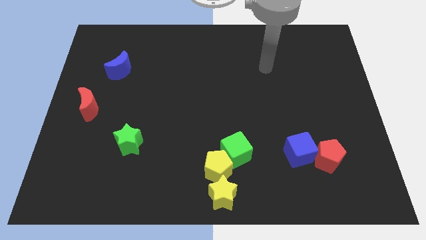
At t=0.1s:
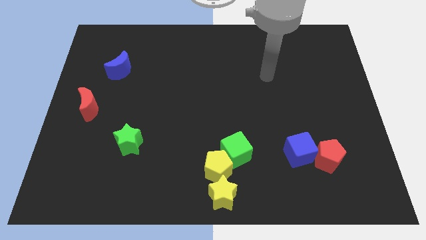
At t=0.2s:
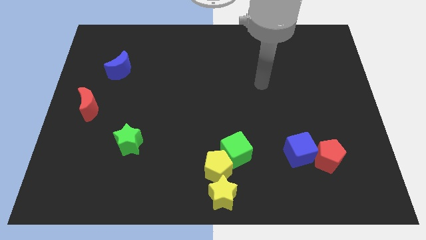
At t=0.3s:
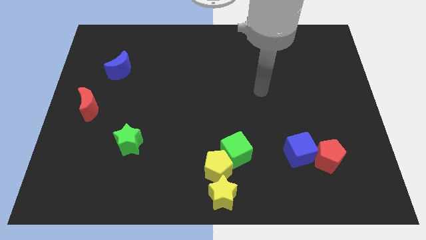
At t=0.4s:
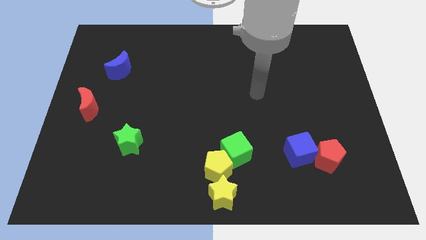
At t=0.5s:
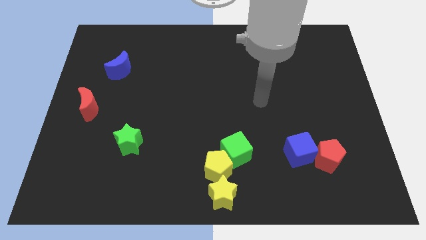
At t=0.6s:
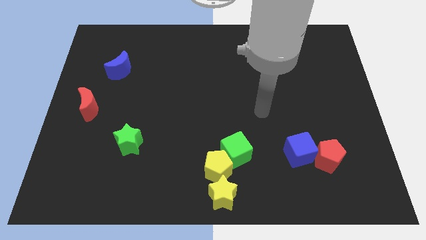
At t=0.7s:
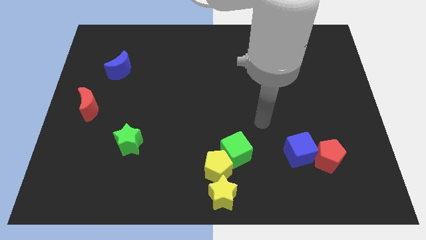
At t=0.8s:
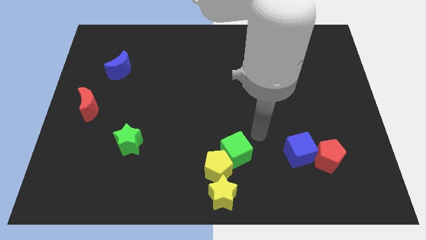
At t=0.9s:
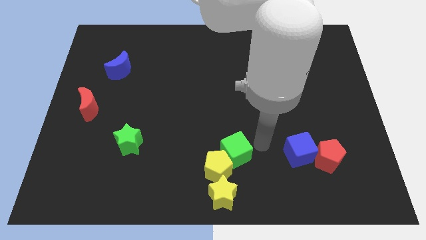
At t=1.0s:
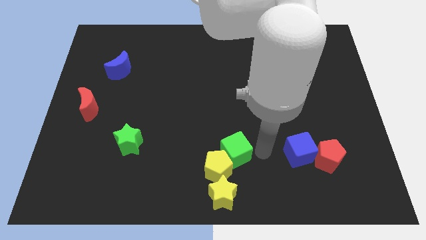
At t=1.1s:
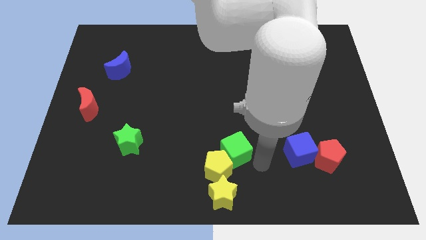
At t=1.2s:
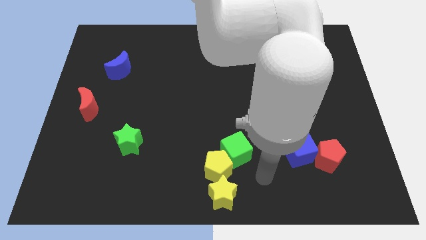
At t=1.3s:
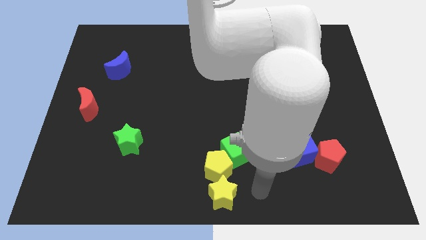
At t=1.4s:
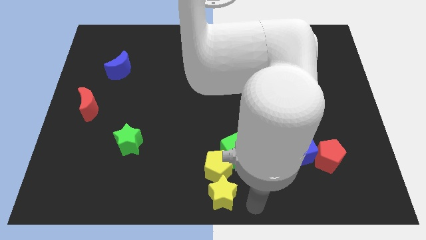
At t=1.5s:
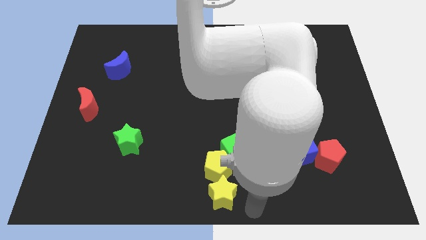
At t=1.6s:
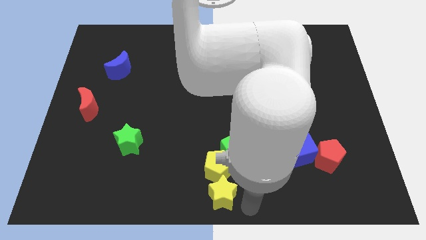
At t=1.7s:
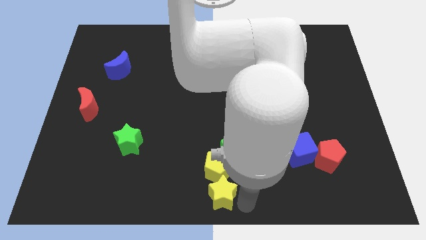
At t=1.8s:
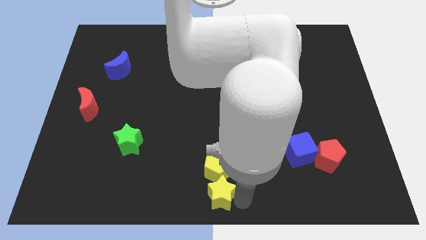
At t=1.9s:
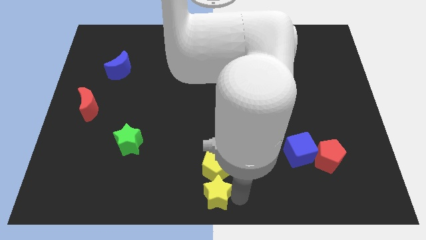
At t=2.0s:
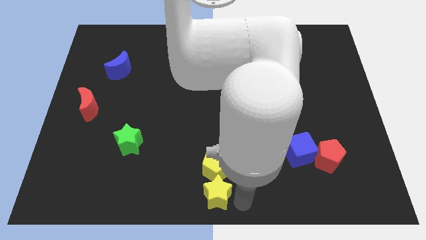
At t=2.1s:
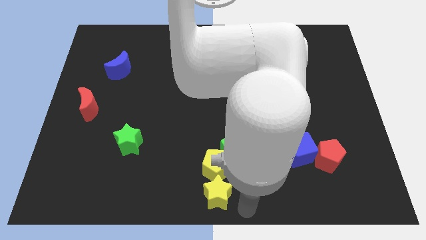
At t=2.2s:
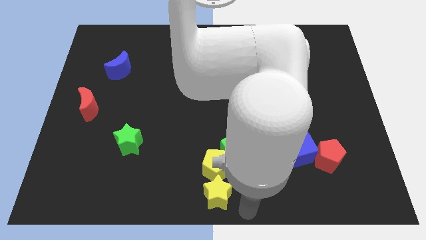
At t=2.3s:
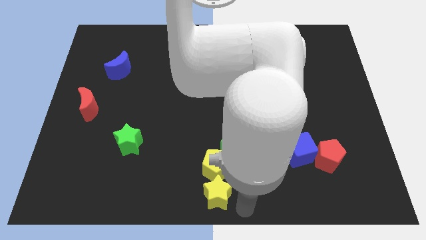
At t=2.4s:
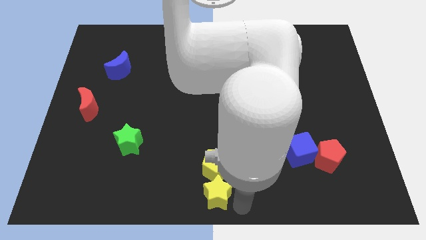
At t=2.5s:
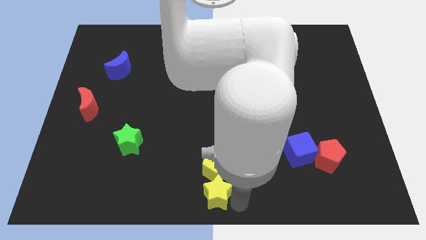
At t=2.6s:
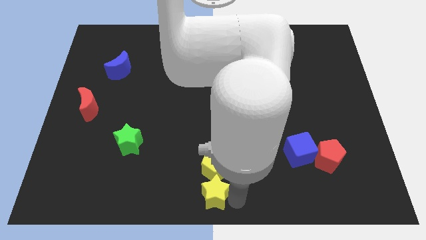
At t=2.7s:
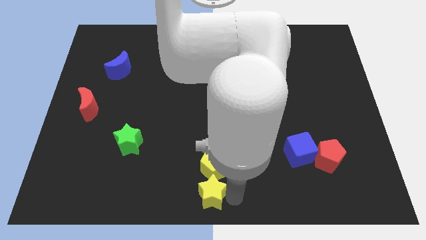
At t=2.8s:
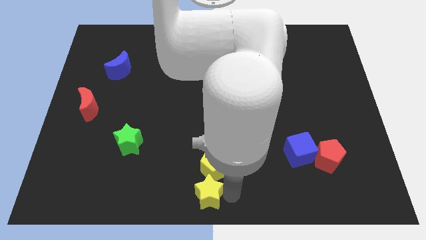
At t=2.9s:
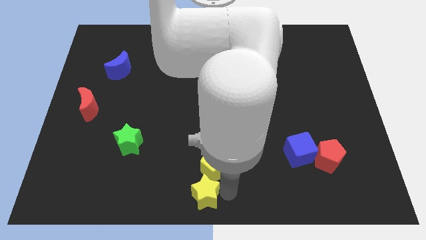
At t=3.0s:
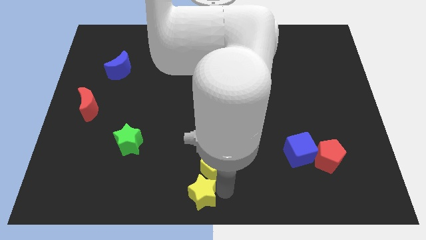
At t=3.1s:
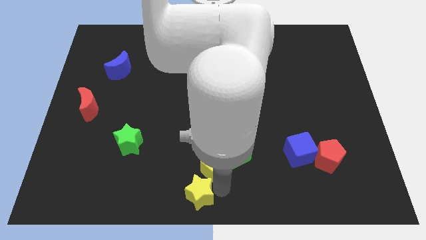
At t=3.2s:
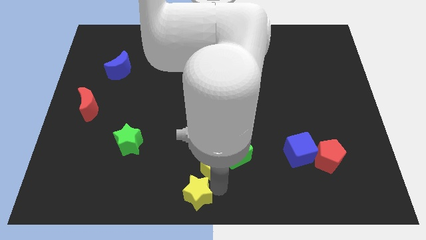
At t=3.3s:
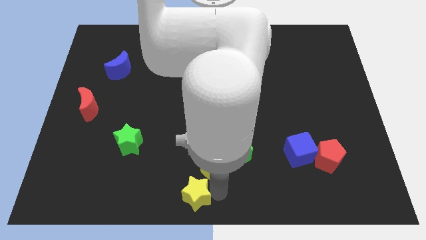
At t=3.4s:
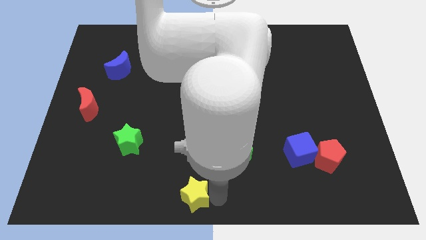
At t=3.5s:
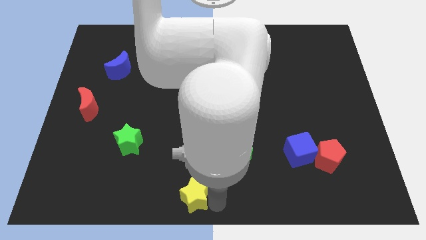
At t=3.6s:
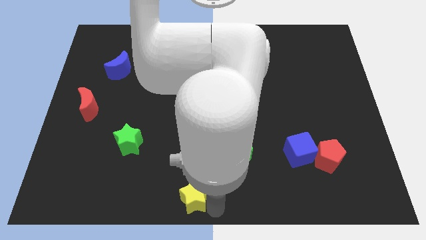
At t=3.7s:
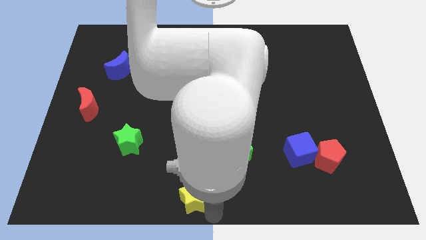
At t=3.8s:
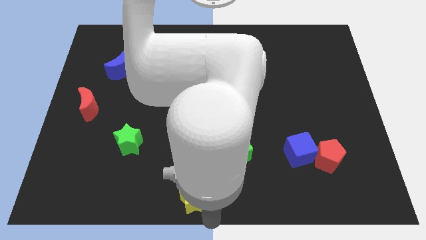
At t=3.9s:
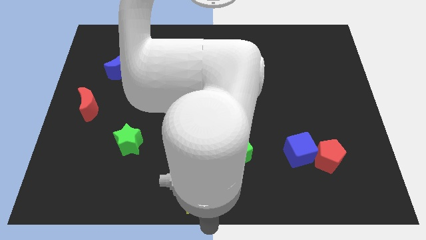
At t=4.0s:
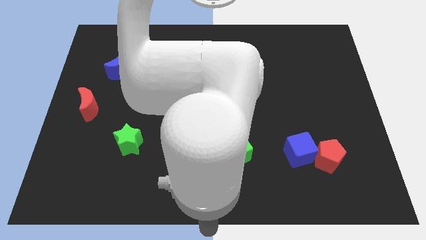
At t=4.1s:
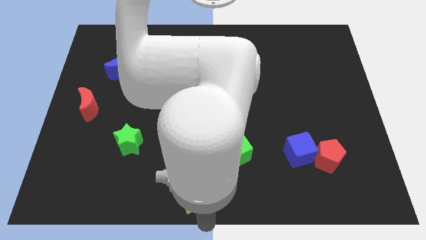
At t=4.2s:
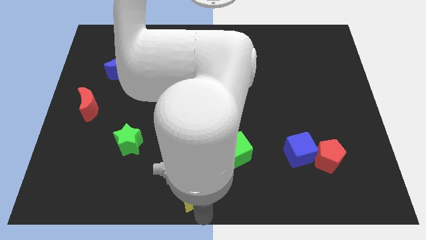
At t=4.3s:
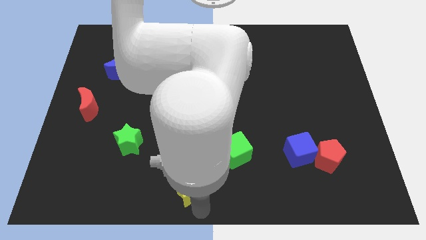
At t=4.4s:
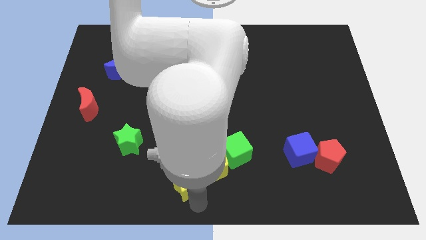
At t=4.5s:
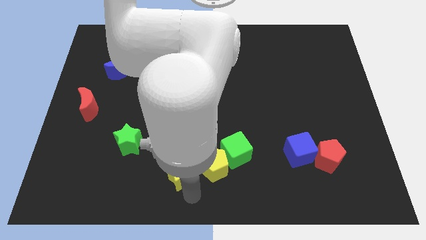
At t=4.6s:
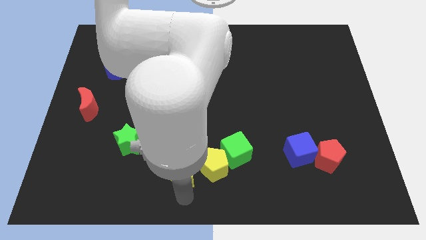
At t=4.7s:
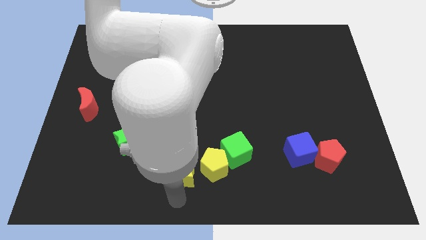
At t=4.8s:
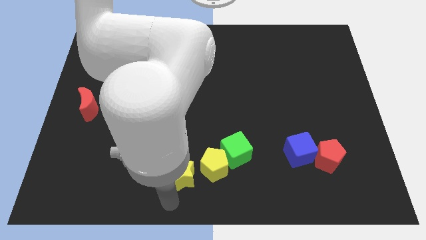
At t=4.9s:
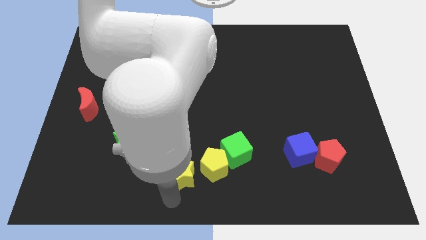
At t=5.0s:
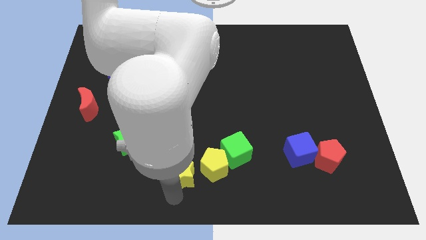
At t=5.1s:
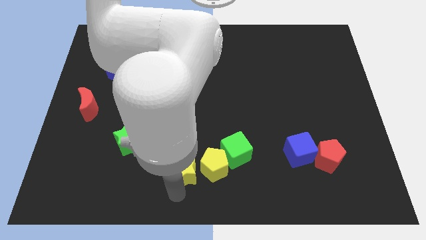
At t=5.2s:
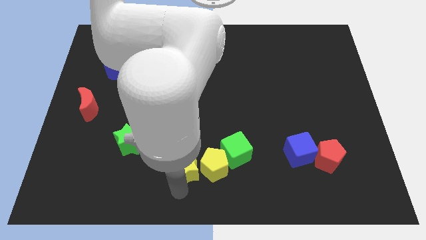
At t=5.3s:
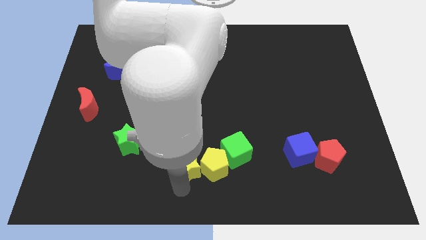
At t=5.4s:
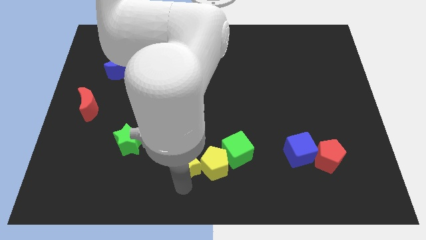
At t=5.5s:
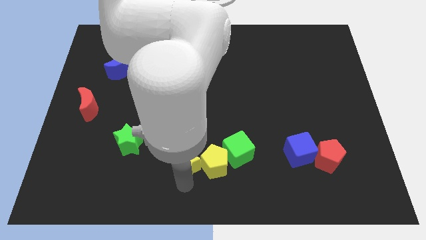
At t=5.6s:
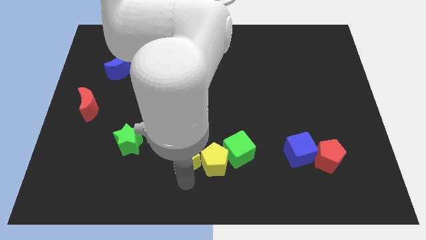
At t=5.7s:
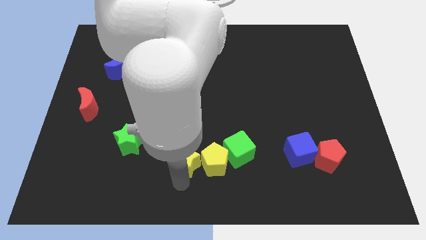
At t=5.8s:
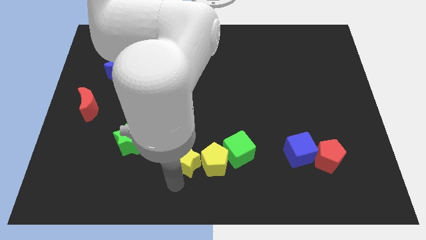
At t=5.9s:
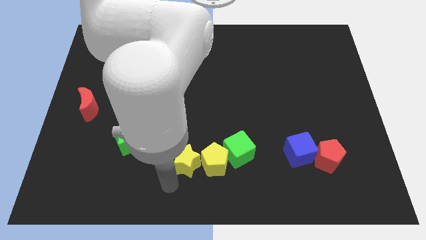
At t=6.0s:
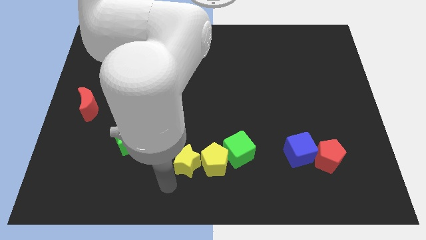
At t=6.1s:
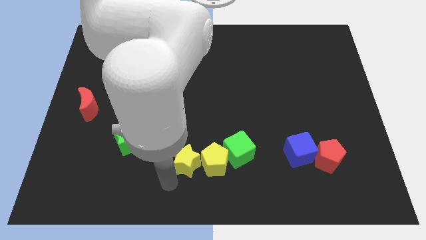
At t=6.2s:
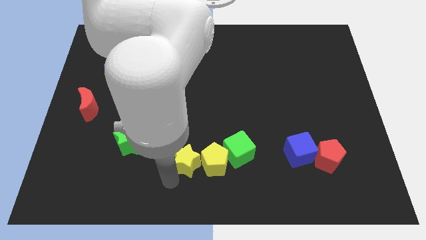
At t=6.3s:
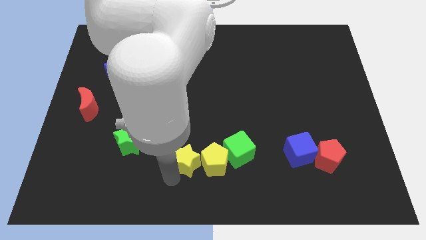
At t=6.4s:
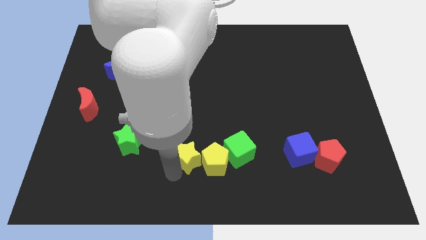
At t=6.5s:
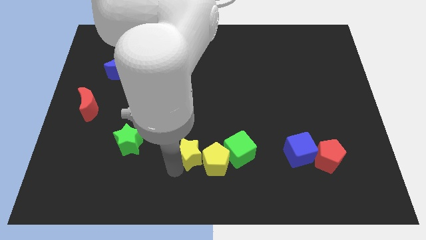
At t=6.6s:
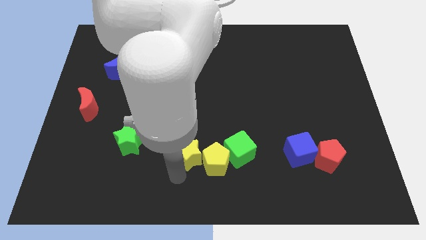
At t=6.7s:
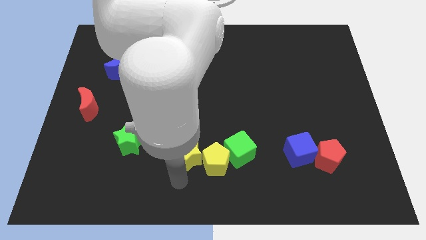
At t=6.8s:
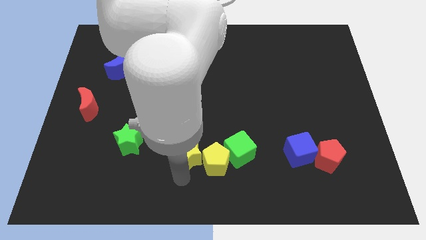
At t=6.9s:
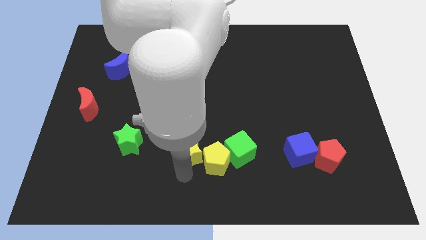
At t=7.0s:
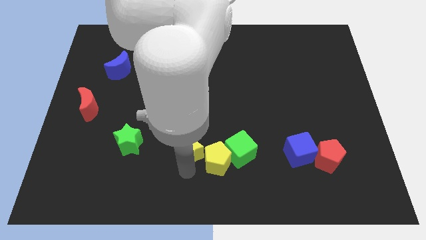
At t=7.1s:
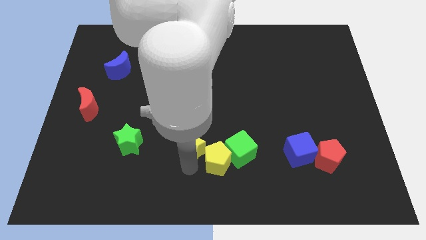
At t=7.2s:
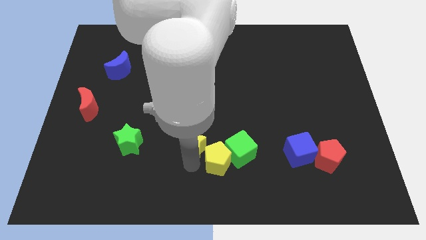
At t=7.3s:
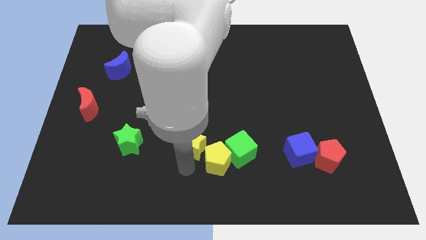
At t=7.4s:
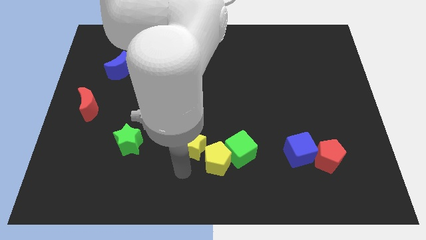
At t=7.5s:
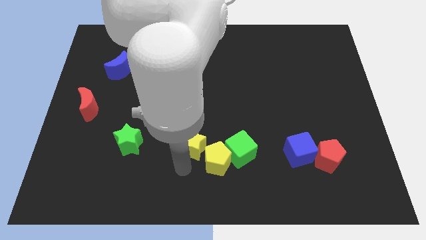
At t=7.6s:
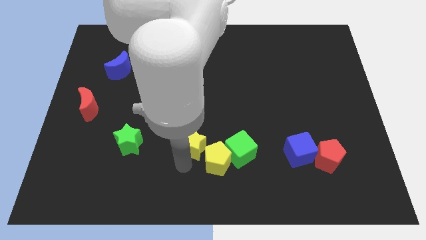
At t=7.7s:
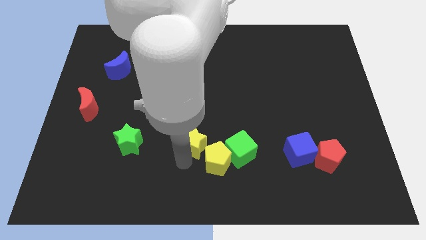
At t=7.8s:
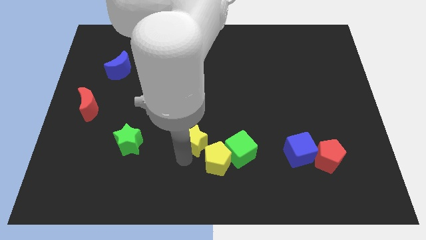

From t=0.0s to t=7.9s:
push the yellow star to the middle
